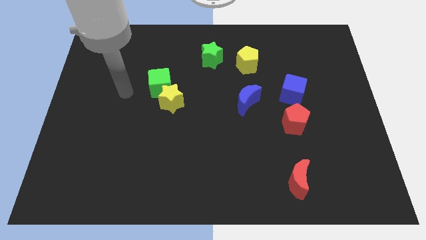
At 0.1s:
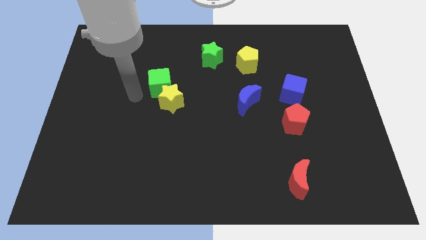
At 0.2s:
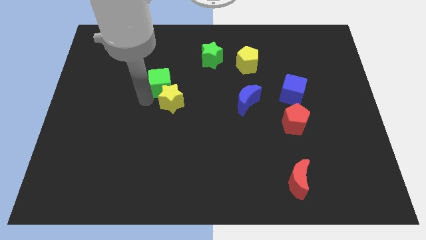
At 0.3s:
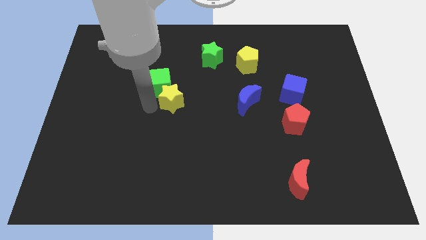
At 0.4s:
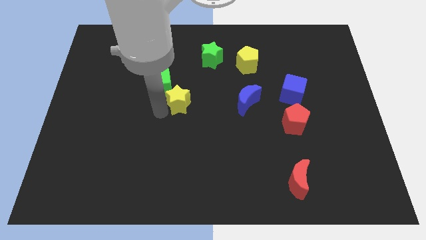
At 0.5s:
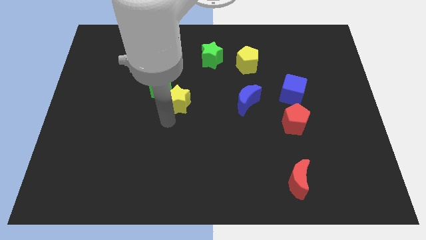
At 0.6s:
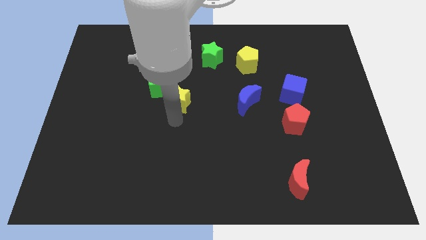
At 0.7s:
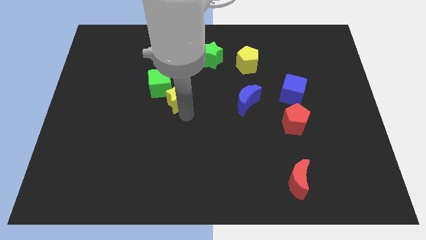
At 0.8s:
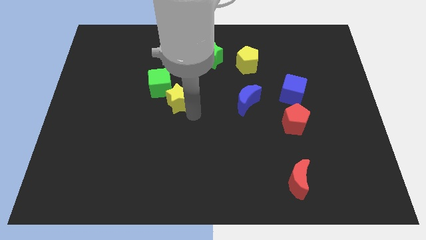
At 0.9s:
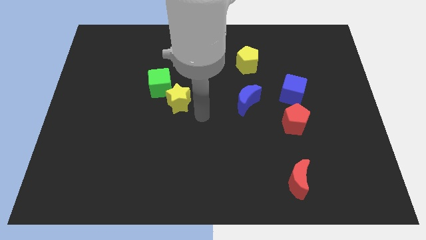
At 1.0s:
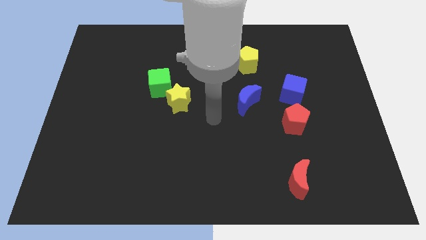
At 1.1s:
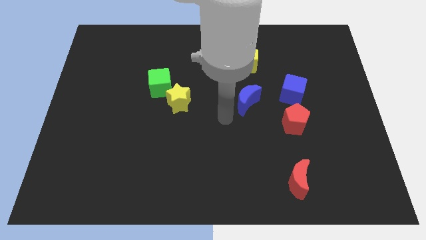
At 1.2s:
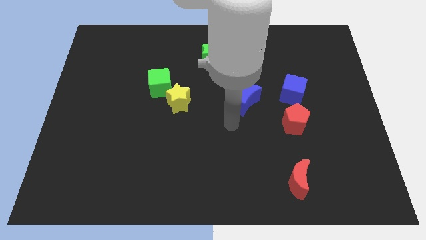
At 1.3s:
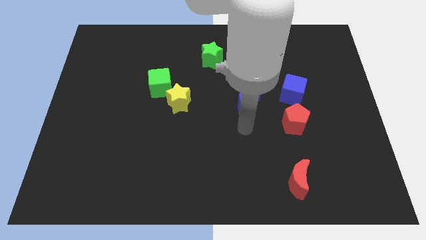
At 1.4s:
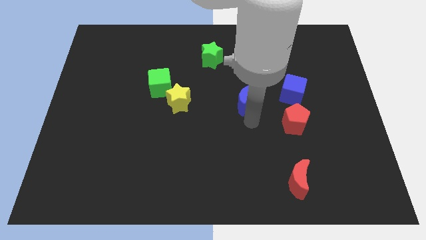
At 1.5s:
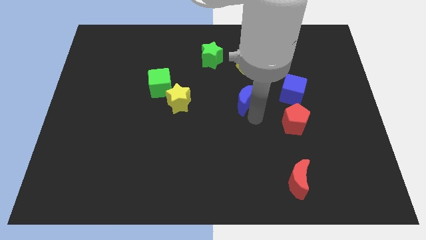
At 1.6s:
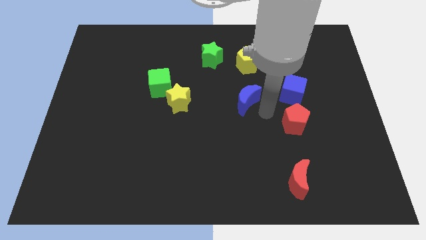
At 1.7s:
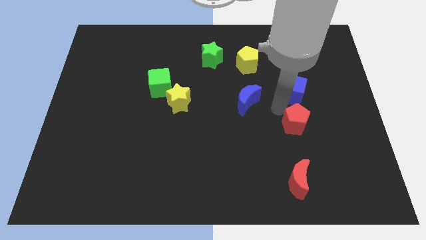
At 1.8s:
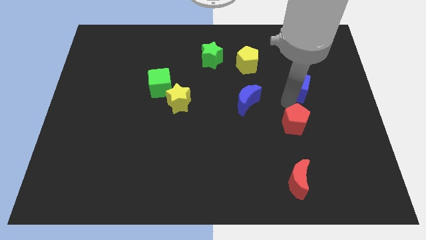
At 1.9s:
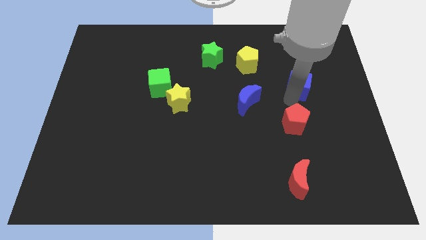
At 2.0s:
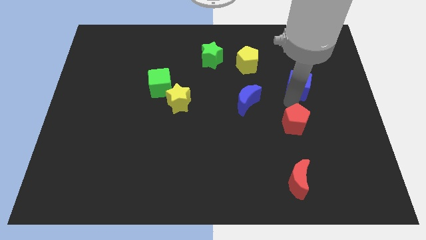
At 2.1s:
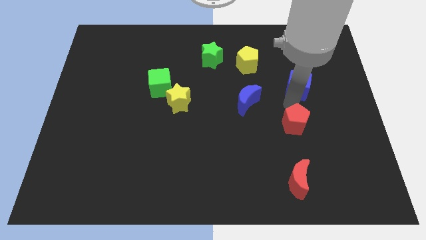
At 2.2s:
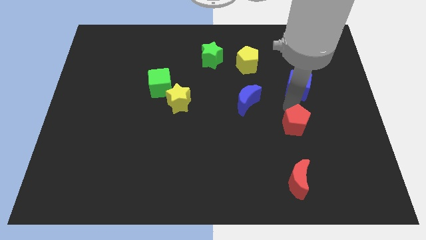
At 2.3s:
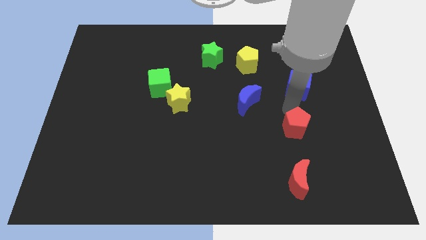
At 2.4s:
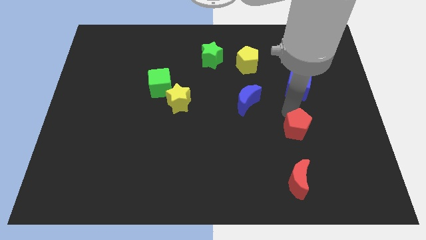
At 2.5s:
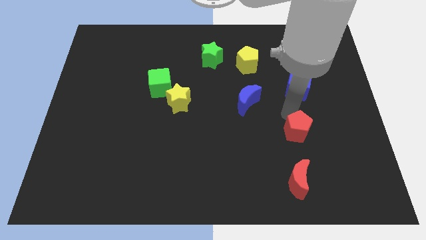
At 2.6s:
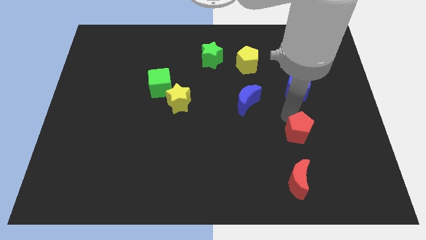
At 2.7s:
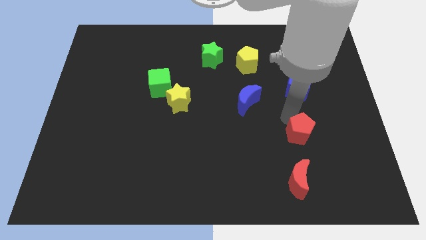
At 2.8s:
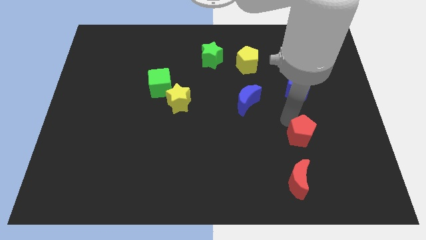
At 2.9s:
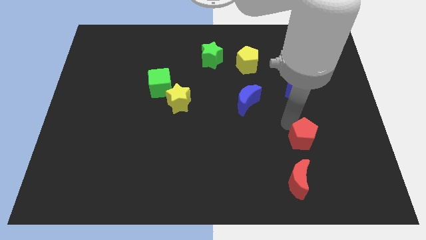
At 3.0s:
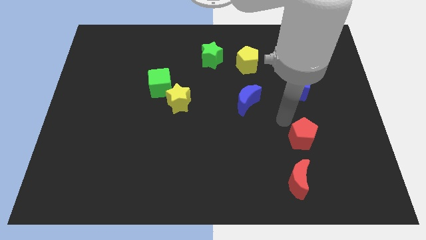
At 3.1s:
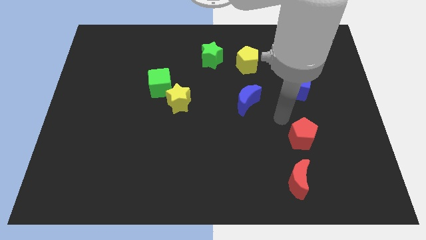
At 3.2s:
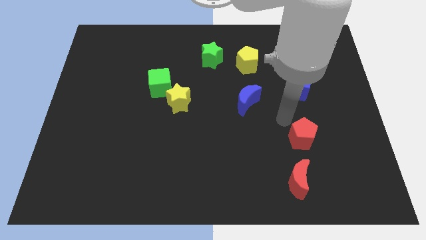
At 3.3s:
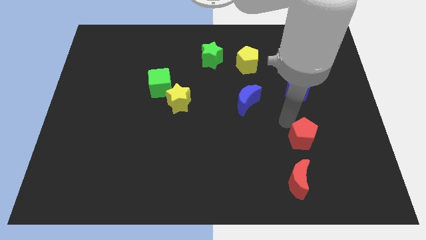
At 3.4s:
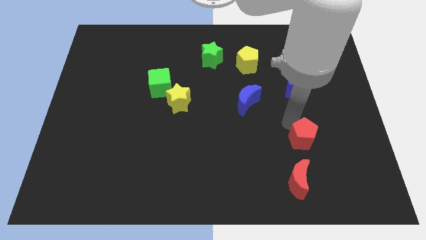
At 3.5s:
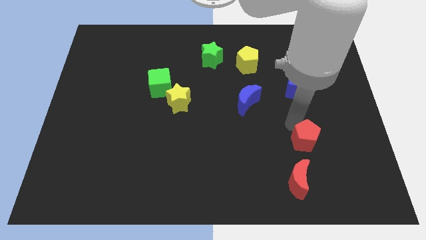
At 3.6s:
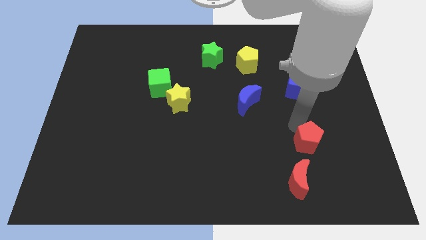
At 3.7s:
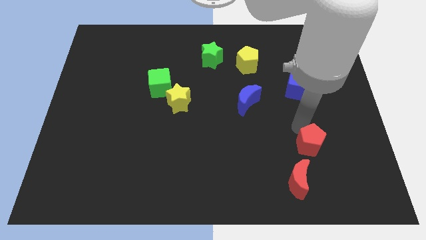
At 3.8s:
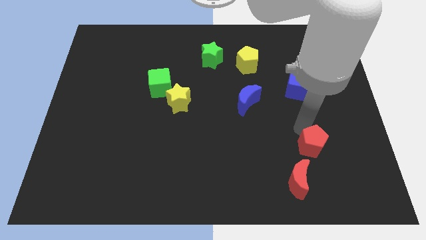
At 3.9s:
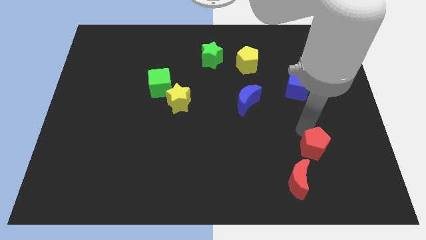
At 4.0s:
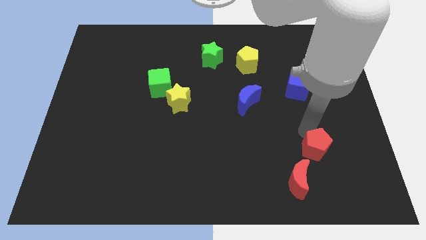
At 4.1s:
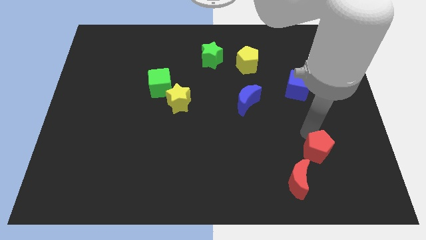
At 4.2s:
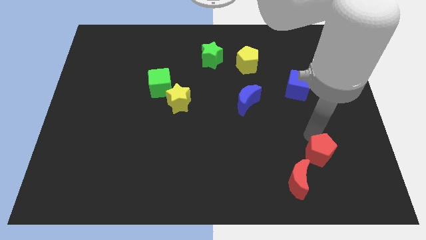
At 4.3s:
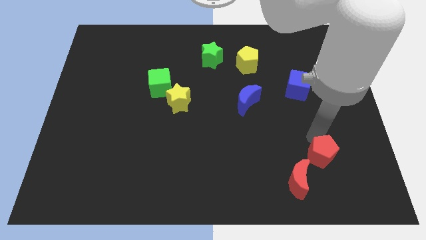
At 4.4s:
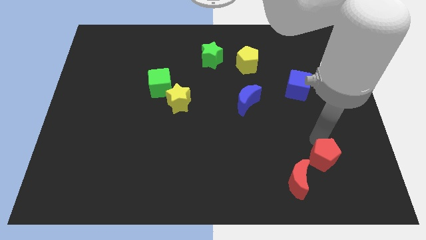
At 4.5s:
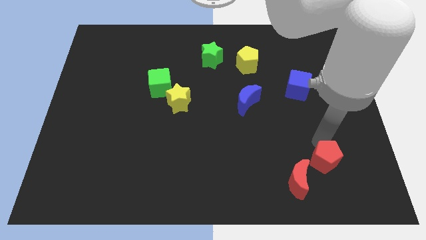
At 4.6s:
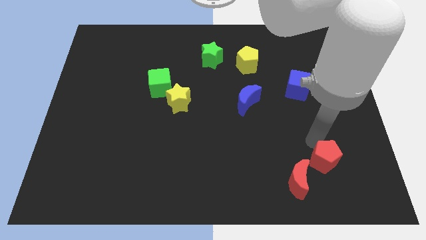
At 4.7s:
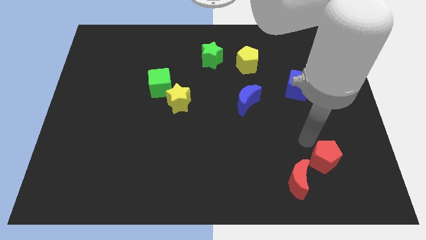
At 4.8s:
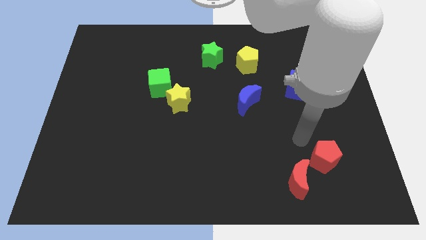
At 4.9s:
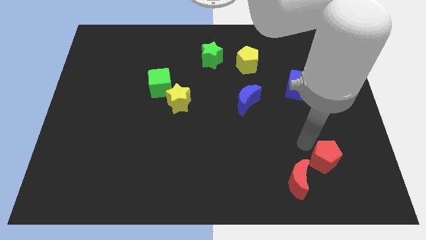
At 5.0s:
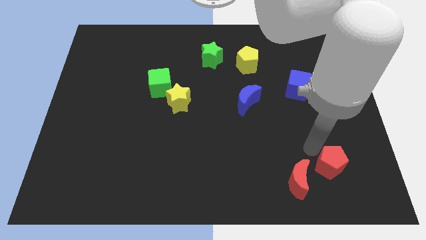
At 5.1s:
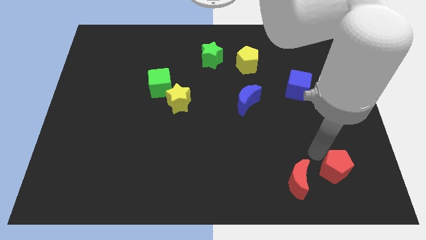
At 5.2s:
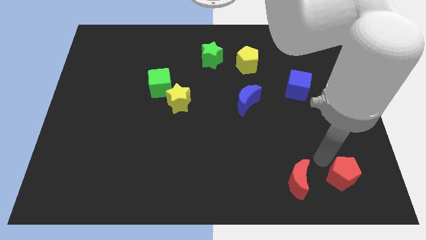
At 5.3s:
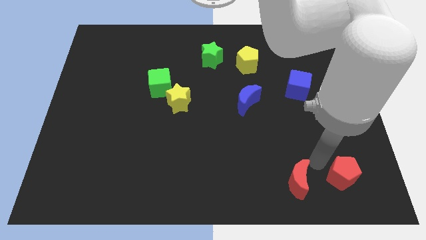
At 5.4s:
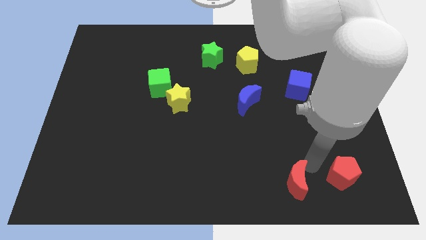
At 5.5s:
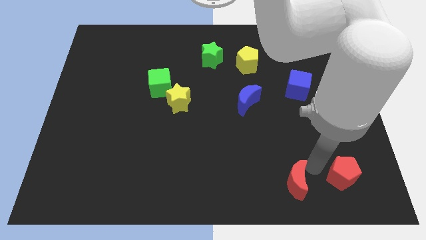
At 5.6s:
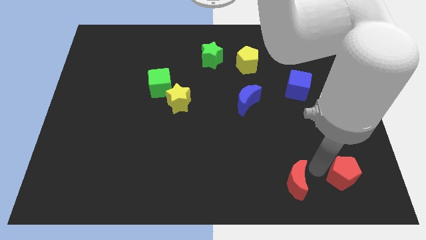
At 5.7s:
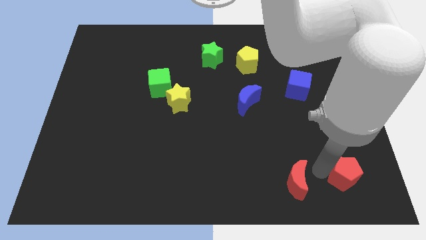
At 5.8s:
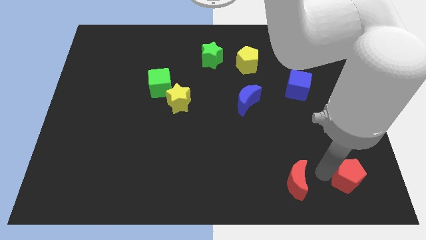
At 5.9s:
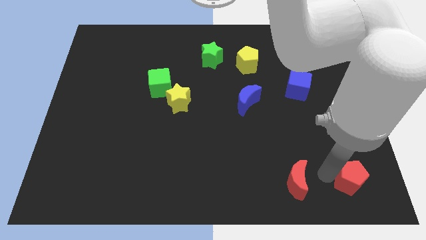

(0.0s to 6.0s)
slide the red pentagon to the bottom right of the board
